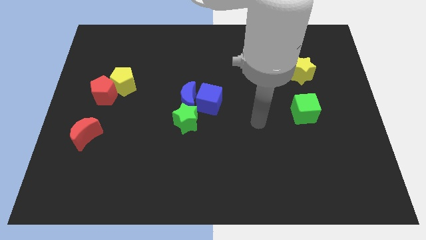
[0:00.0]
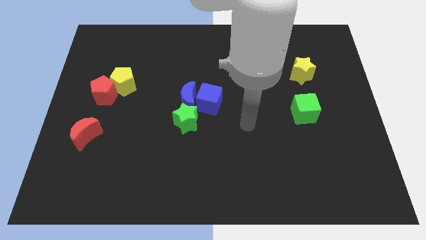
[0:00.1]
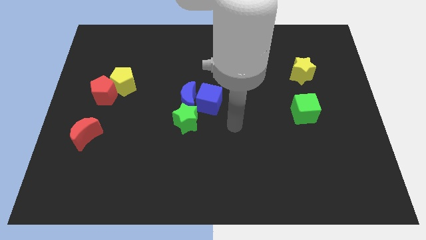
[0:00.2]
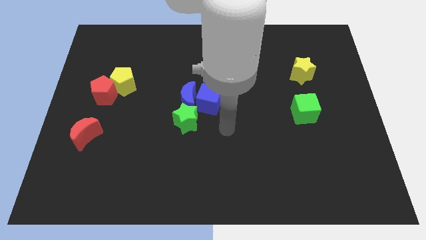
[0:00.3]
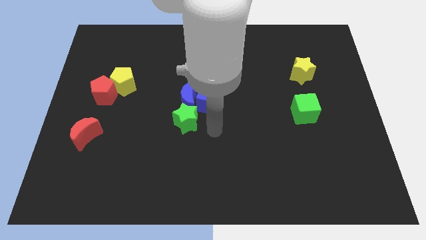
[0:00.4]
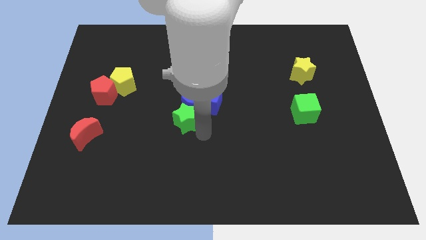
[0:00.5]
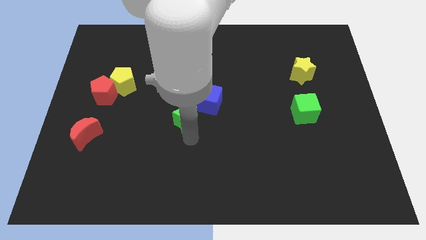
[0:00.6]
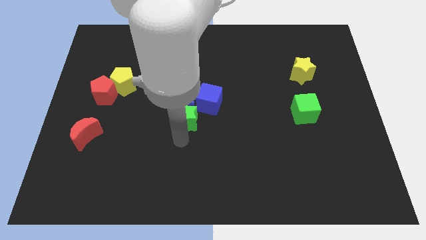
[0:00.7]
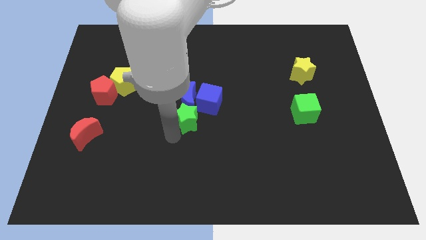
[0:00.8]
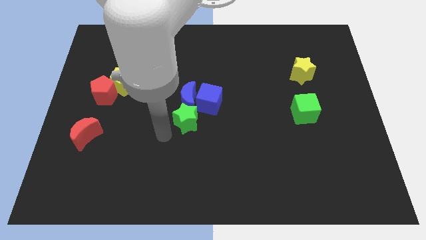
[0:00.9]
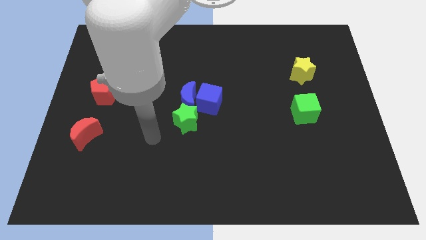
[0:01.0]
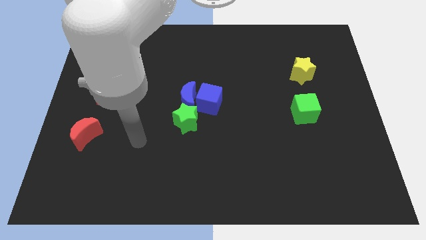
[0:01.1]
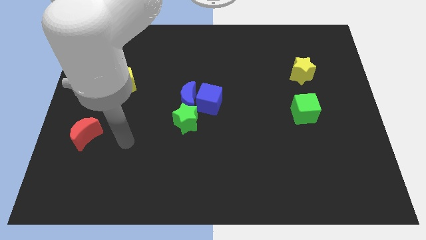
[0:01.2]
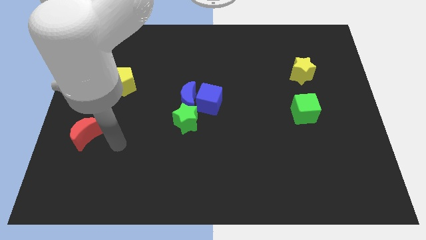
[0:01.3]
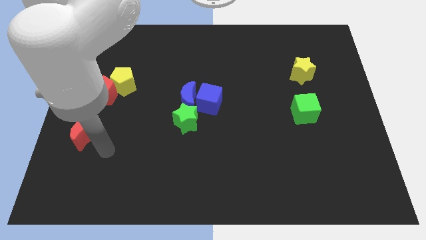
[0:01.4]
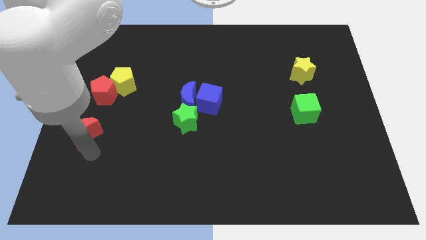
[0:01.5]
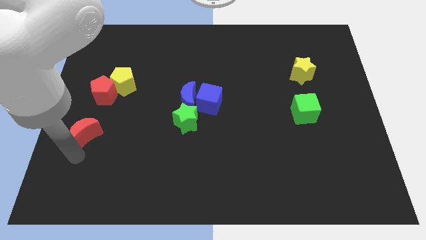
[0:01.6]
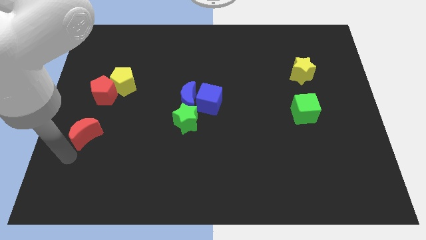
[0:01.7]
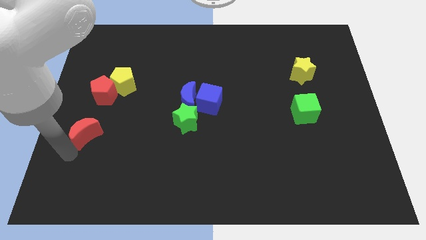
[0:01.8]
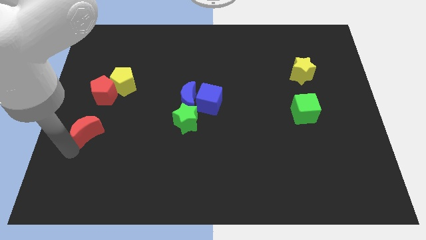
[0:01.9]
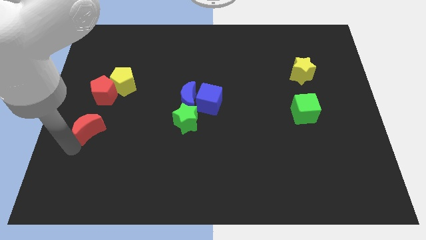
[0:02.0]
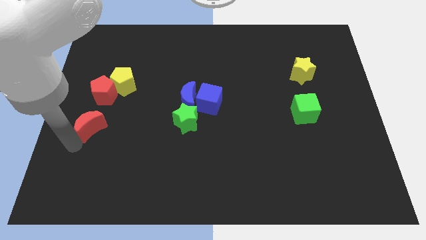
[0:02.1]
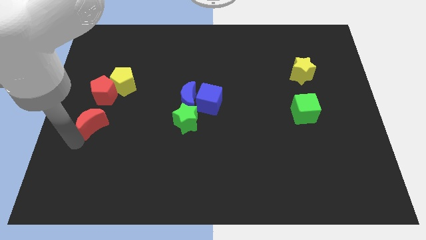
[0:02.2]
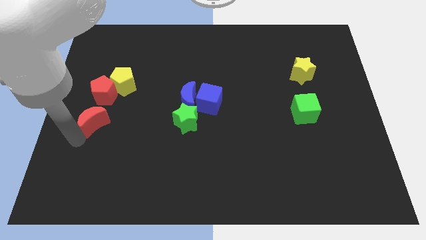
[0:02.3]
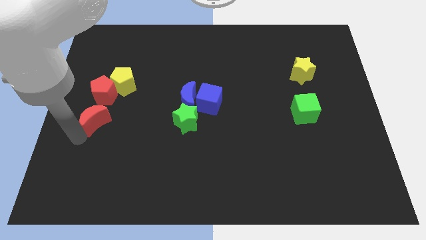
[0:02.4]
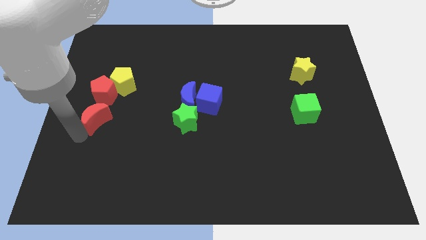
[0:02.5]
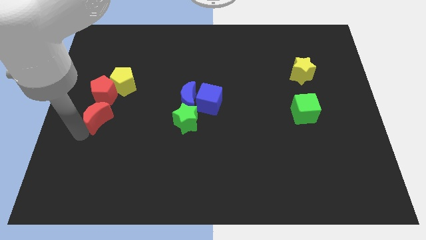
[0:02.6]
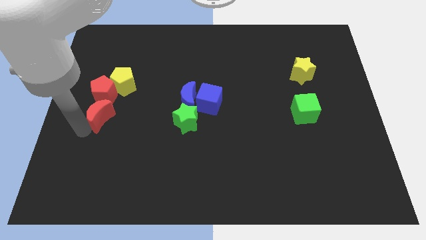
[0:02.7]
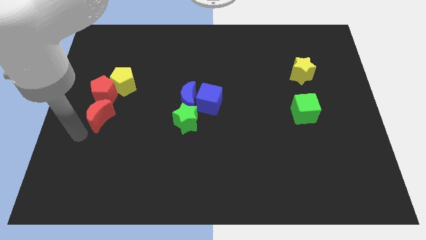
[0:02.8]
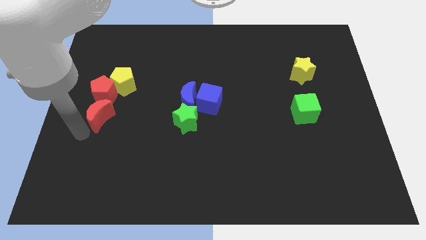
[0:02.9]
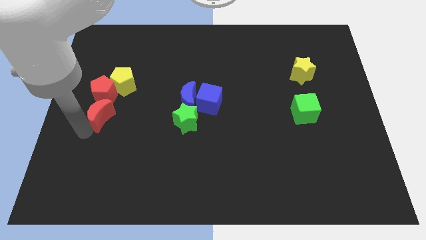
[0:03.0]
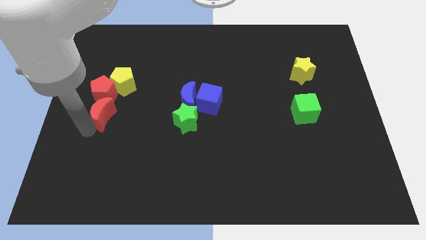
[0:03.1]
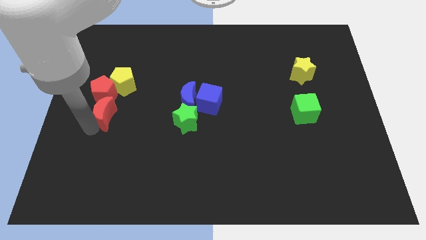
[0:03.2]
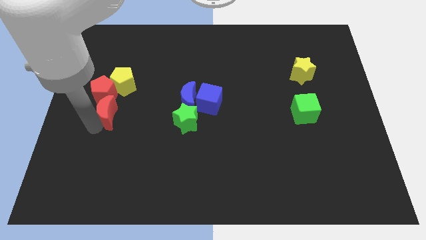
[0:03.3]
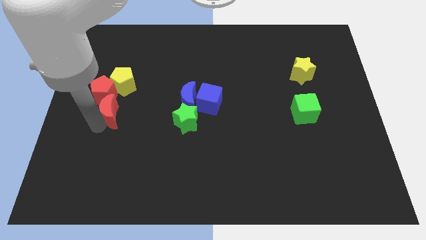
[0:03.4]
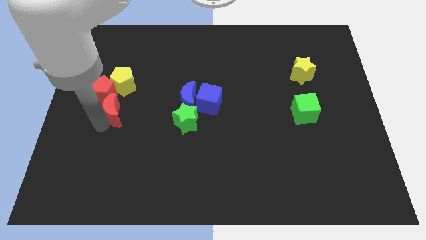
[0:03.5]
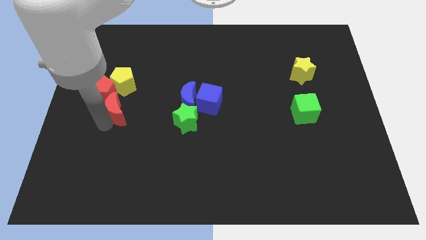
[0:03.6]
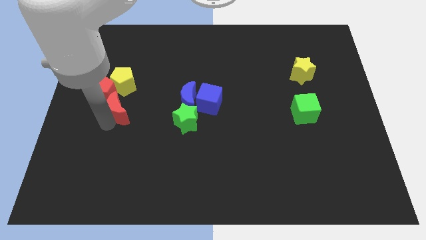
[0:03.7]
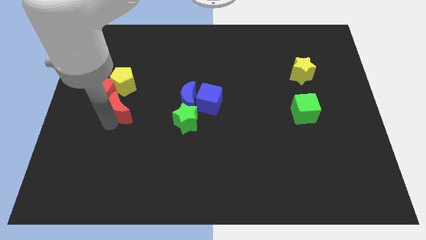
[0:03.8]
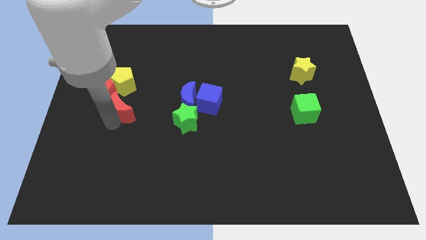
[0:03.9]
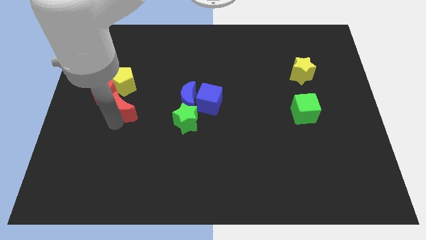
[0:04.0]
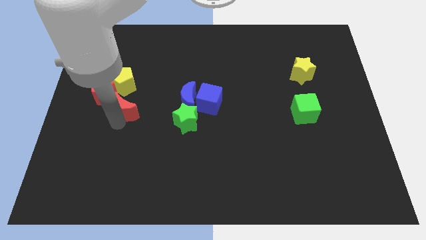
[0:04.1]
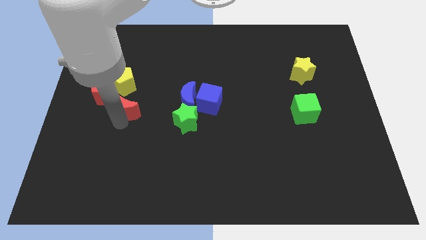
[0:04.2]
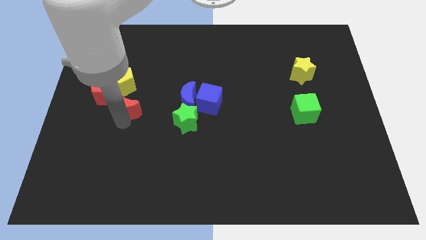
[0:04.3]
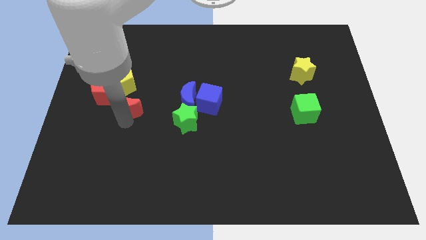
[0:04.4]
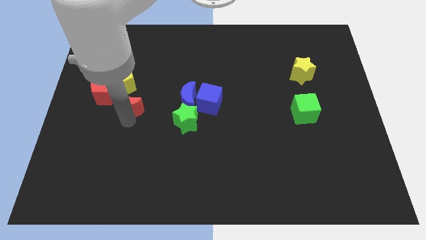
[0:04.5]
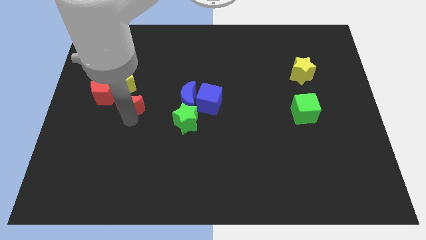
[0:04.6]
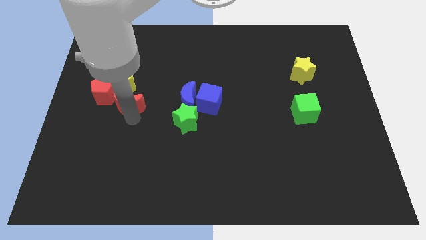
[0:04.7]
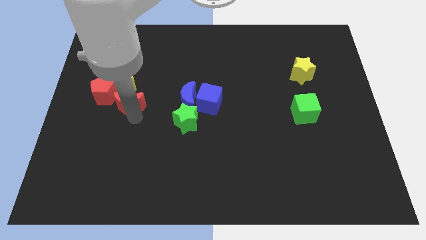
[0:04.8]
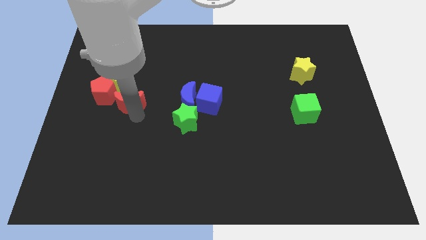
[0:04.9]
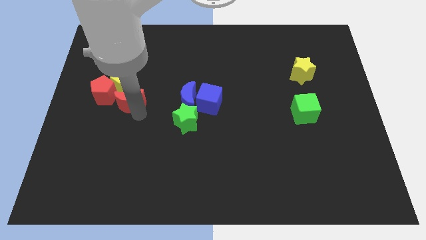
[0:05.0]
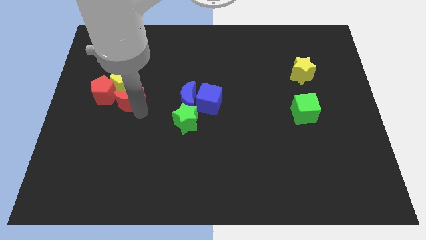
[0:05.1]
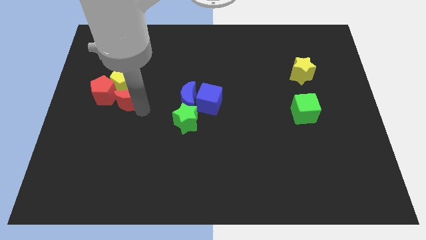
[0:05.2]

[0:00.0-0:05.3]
put the red moon close to the yellow pentagon

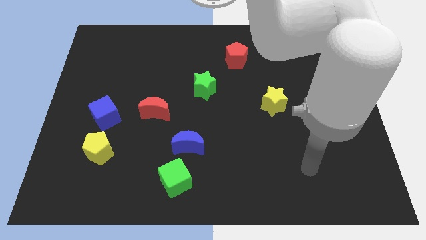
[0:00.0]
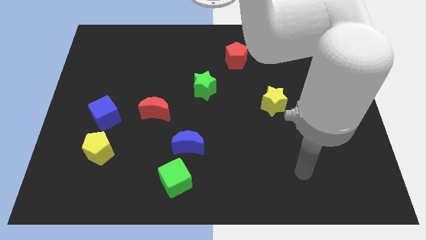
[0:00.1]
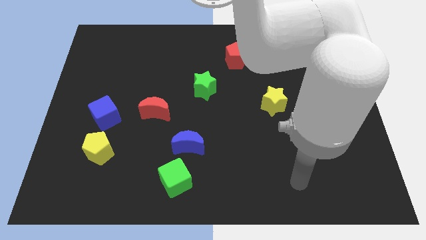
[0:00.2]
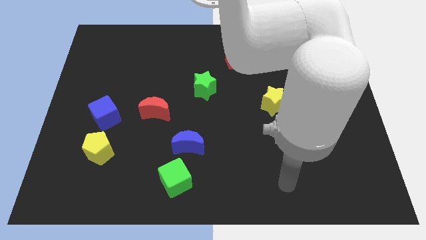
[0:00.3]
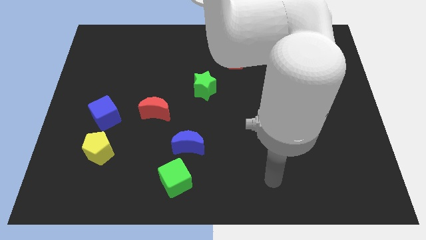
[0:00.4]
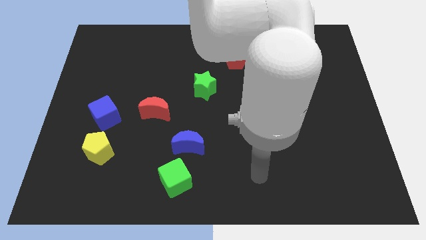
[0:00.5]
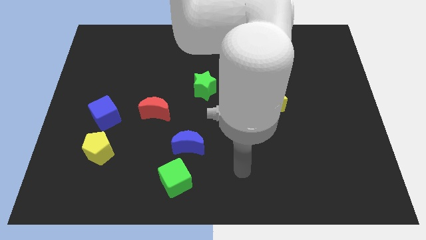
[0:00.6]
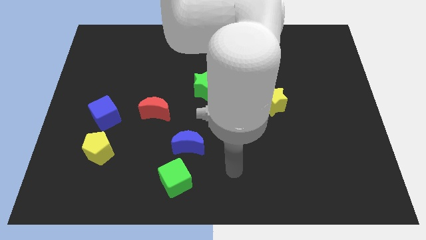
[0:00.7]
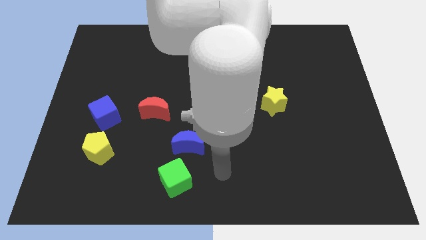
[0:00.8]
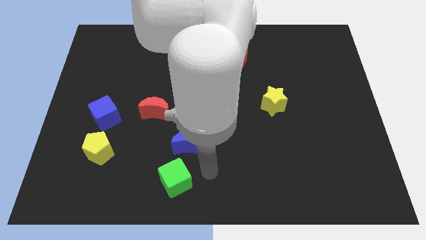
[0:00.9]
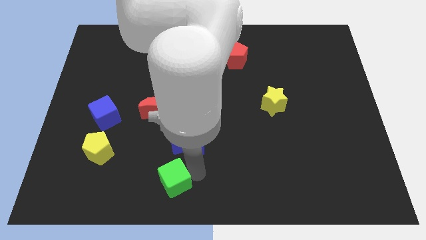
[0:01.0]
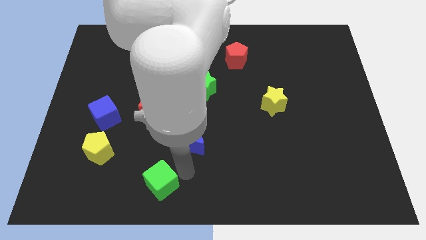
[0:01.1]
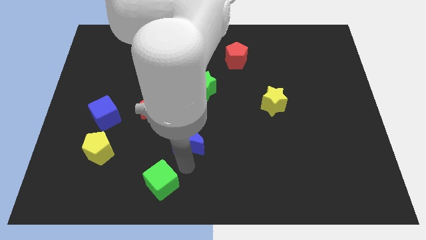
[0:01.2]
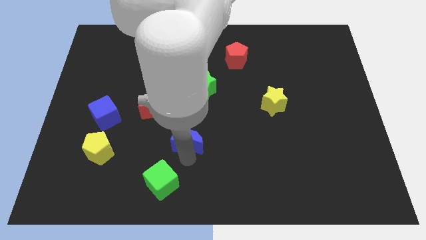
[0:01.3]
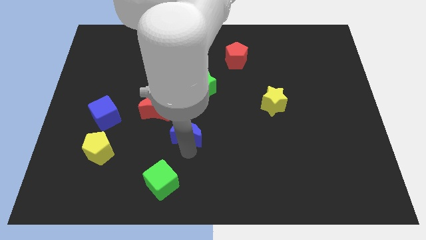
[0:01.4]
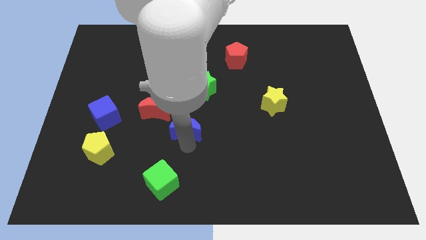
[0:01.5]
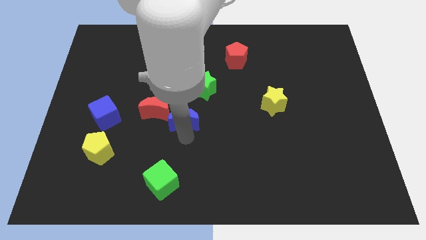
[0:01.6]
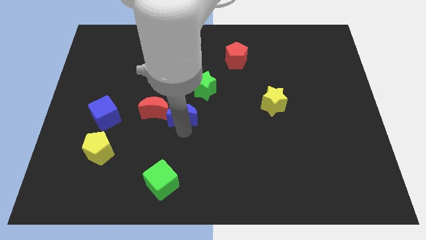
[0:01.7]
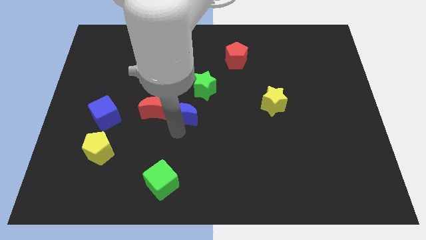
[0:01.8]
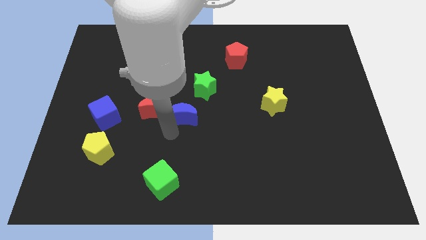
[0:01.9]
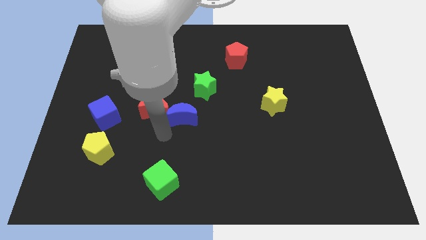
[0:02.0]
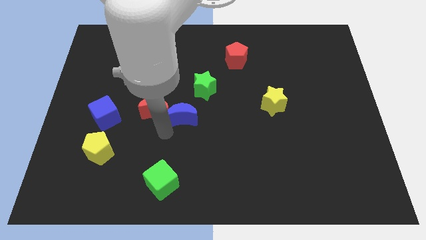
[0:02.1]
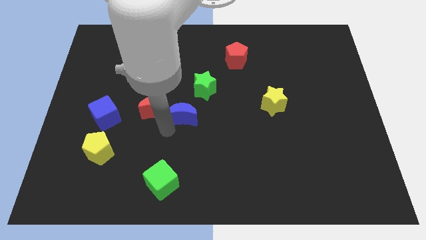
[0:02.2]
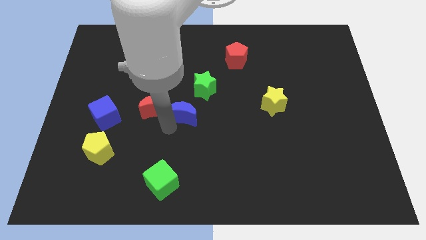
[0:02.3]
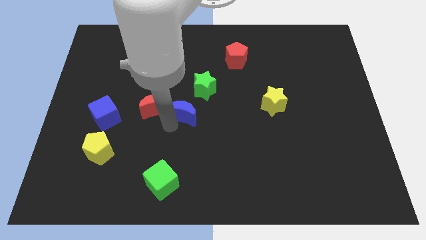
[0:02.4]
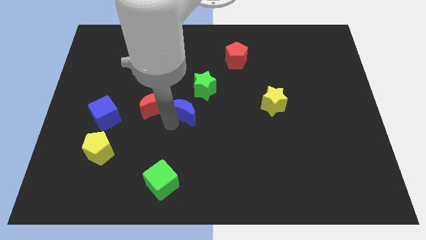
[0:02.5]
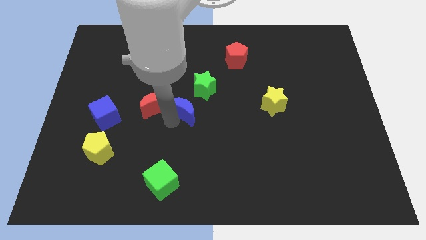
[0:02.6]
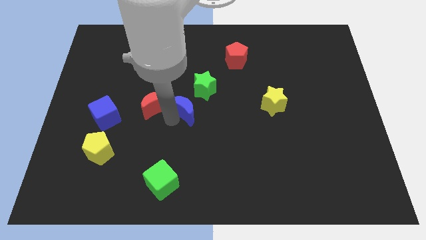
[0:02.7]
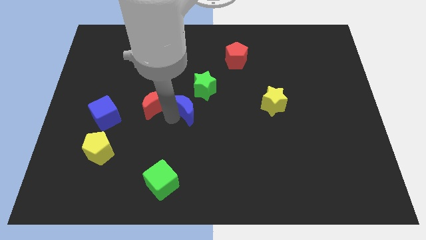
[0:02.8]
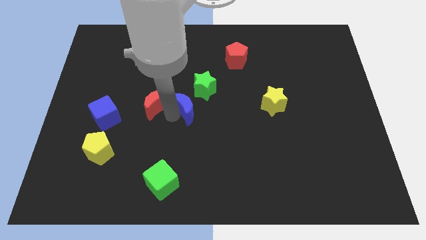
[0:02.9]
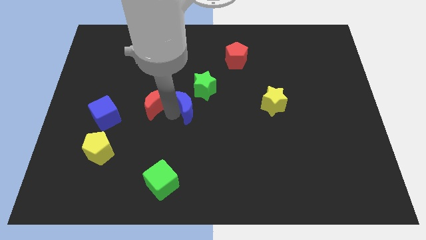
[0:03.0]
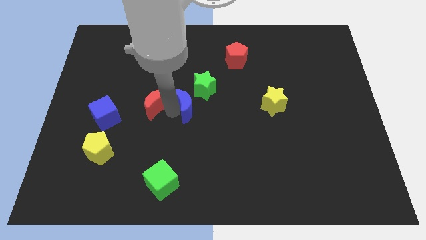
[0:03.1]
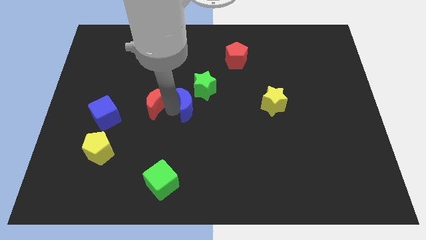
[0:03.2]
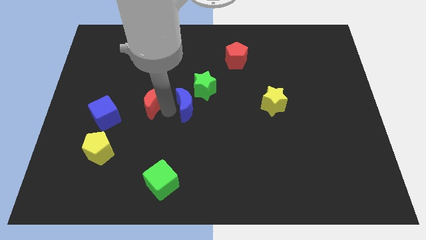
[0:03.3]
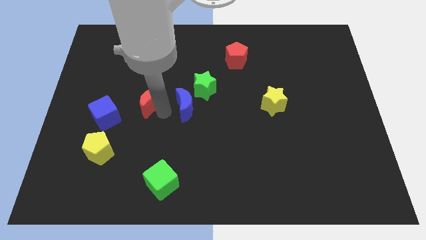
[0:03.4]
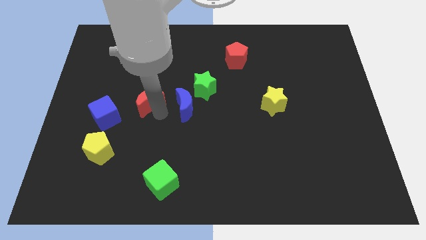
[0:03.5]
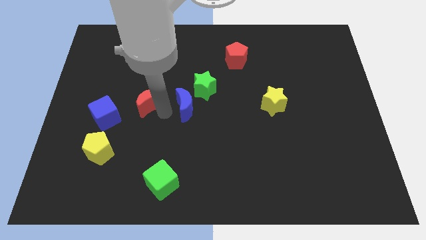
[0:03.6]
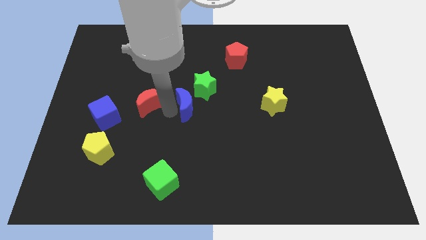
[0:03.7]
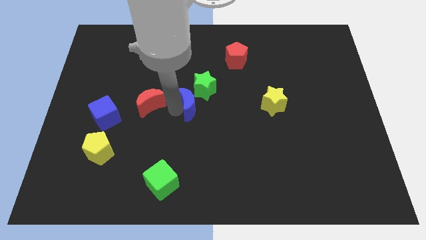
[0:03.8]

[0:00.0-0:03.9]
move the blue moon next to the green star
